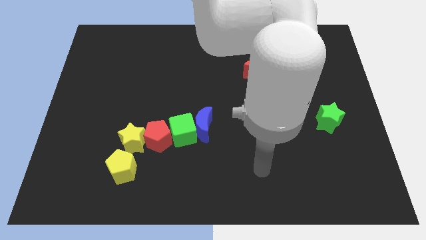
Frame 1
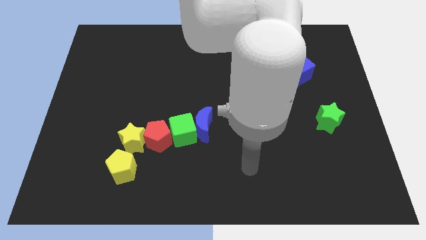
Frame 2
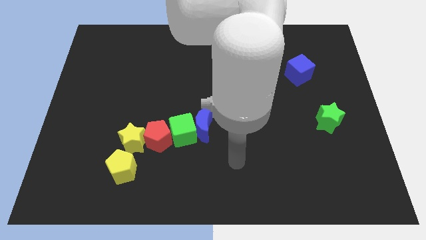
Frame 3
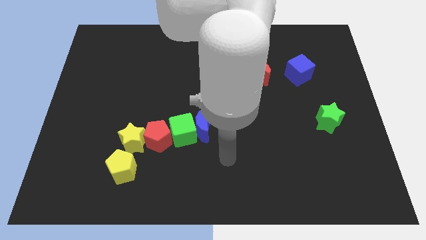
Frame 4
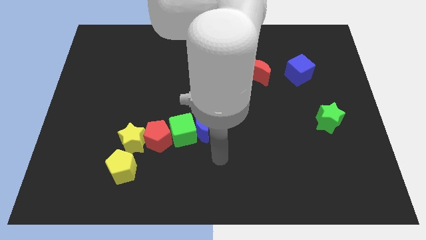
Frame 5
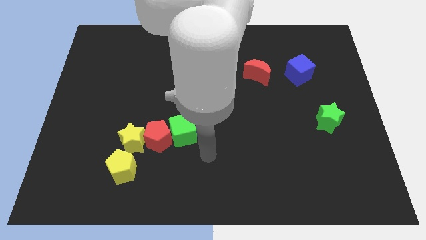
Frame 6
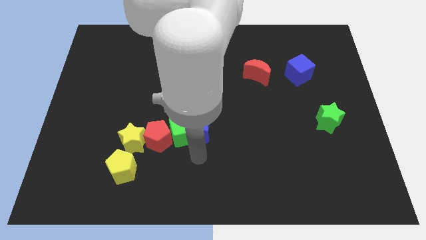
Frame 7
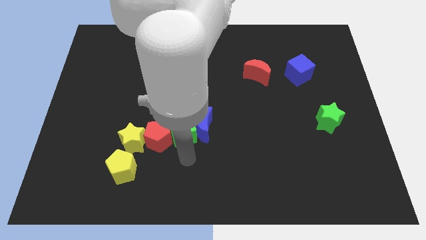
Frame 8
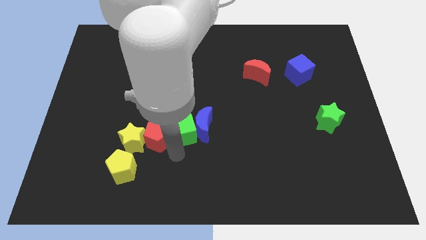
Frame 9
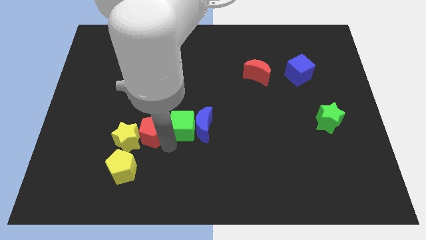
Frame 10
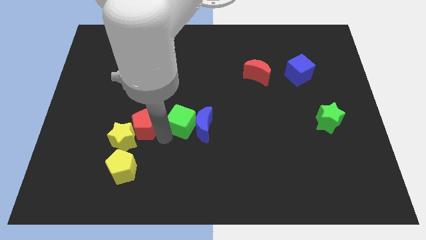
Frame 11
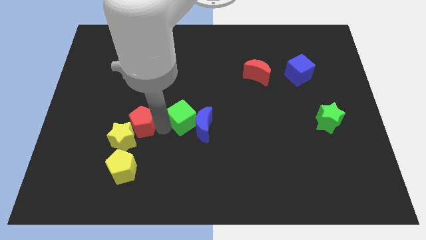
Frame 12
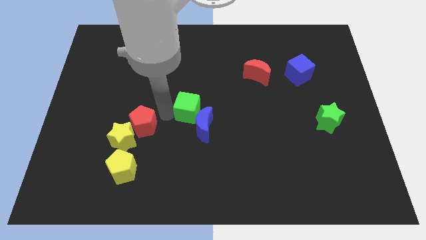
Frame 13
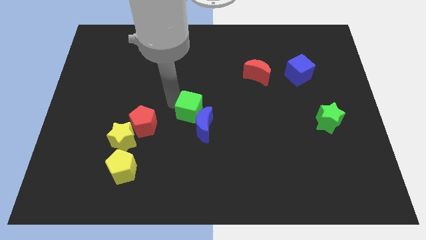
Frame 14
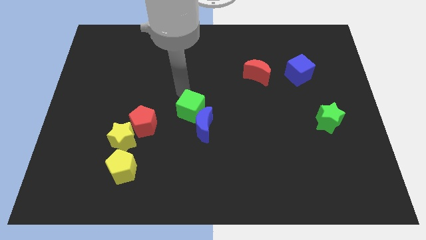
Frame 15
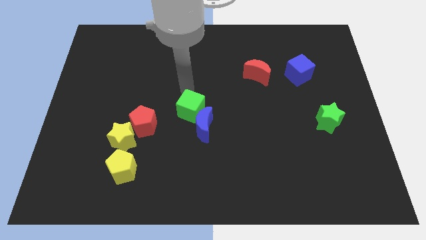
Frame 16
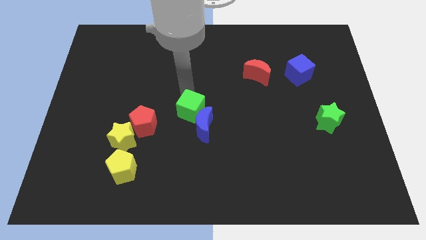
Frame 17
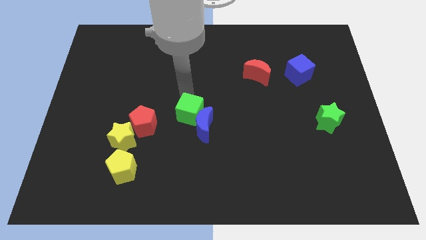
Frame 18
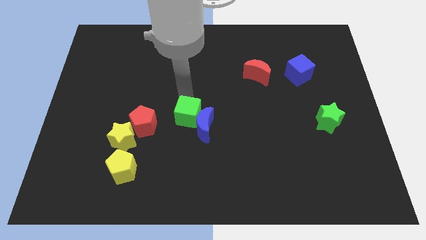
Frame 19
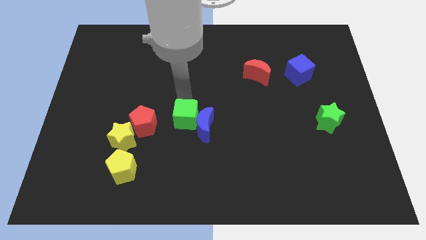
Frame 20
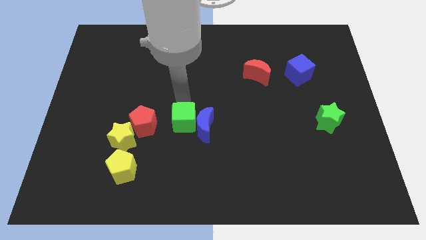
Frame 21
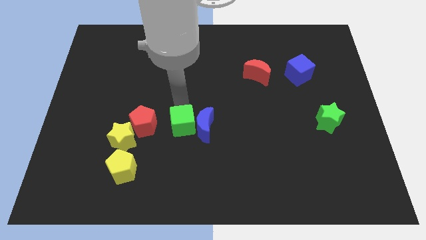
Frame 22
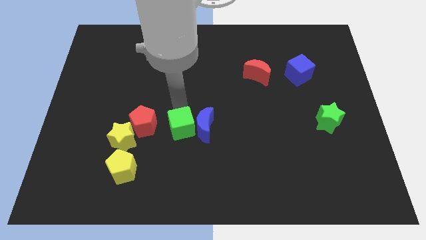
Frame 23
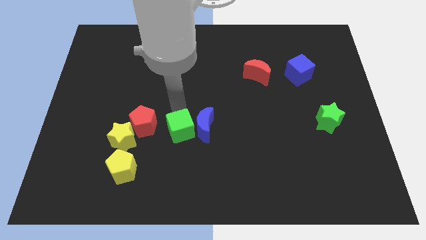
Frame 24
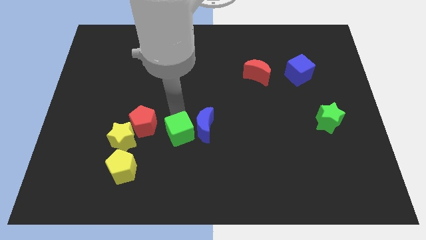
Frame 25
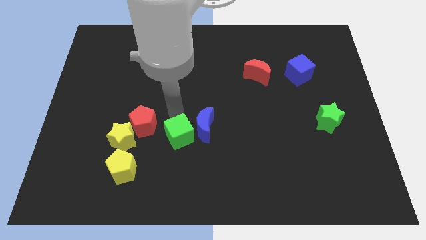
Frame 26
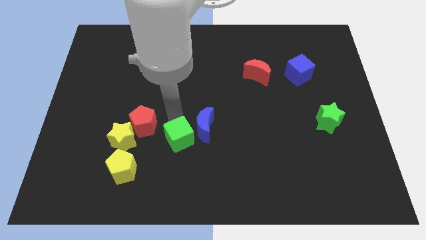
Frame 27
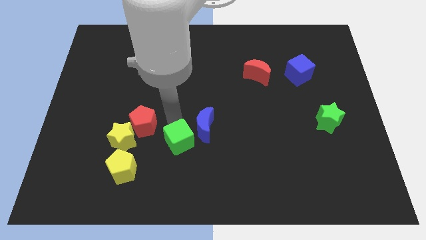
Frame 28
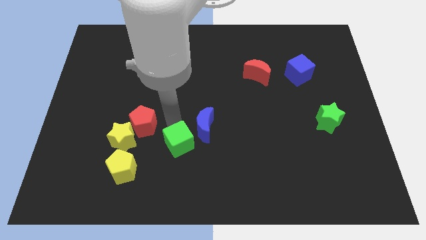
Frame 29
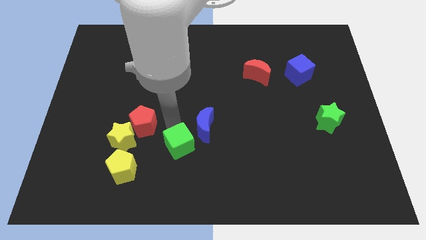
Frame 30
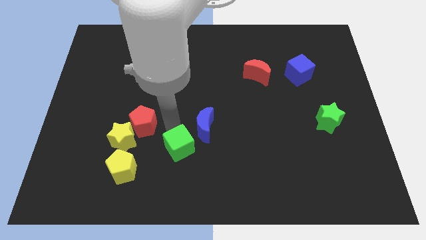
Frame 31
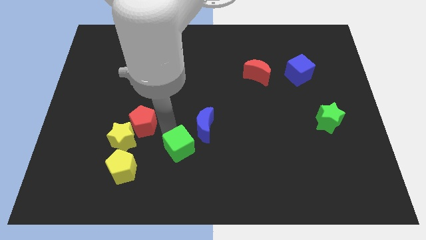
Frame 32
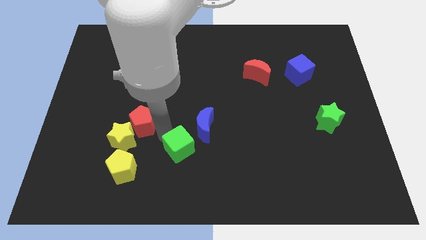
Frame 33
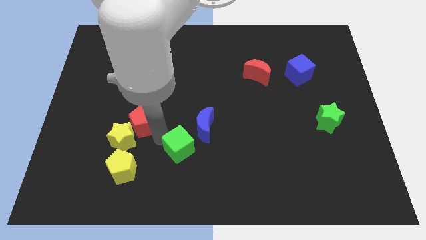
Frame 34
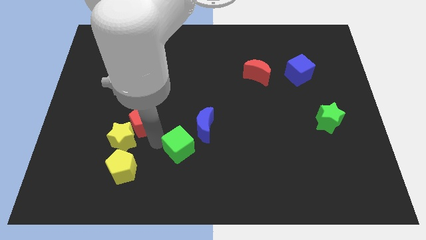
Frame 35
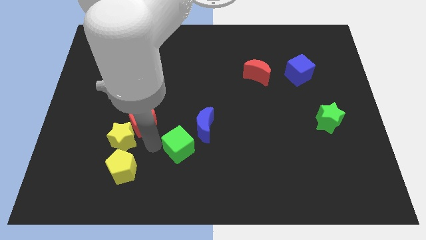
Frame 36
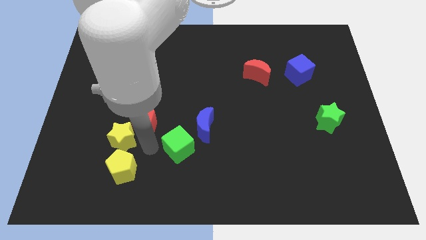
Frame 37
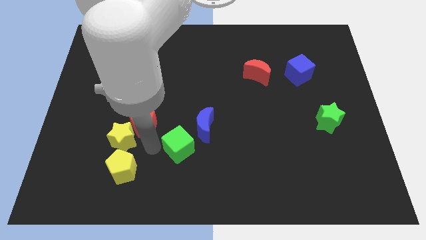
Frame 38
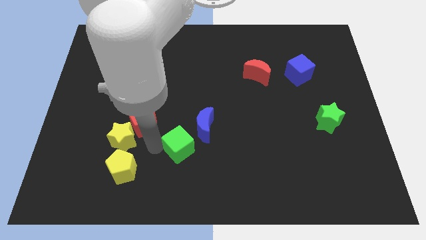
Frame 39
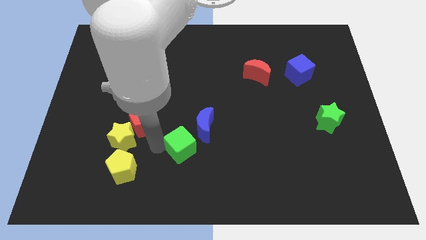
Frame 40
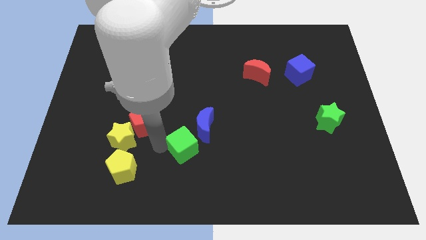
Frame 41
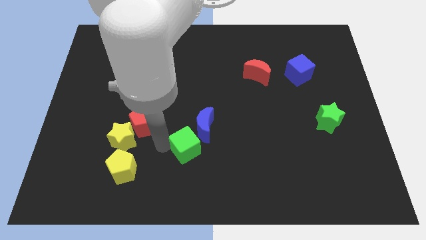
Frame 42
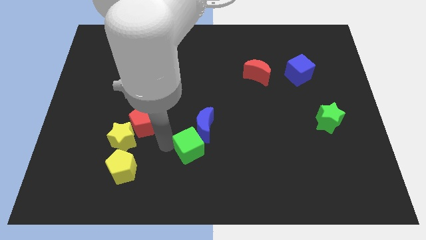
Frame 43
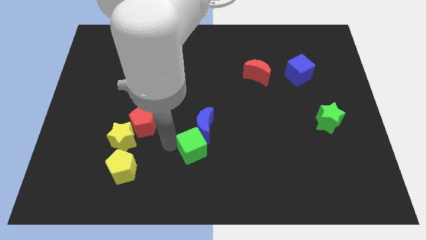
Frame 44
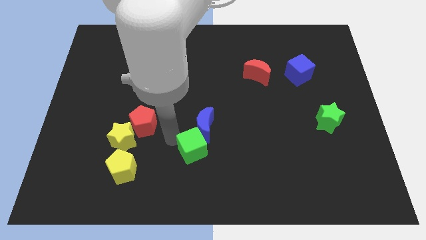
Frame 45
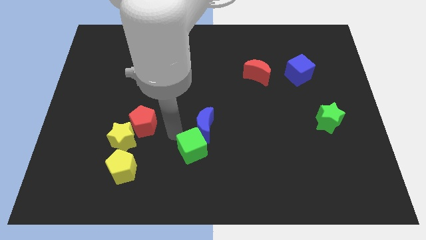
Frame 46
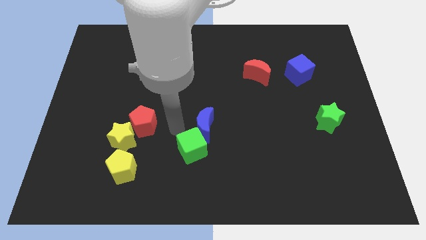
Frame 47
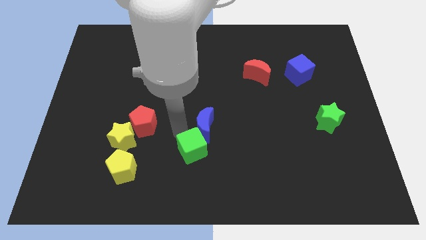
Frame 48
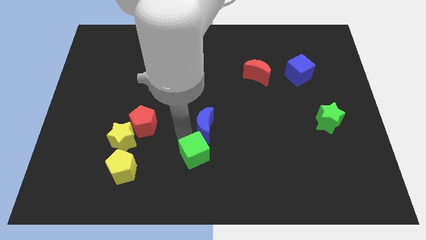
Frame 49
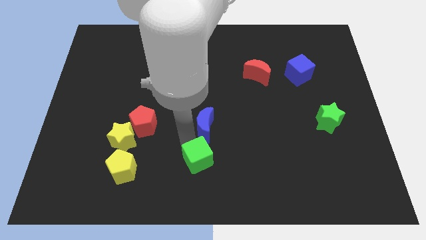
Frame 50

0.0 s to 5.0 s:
pull the green cube apart from the blue moon and red pentagon

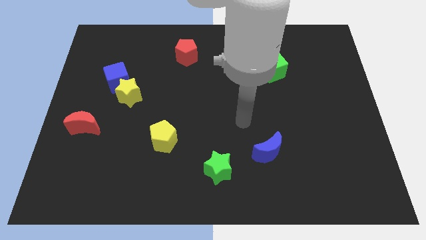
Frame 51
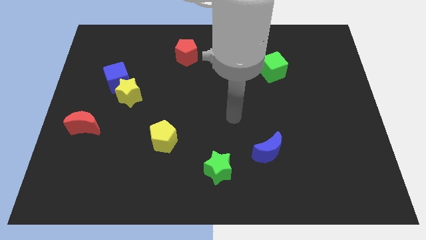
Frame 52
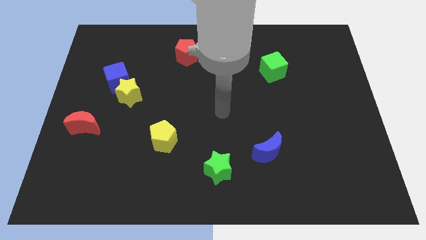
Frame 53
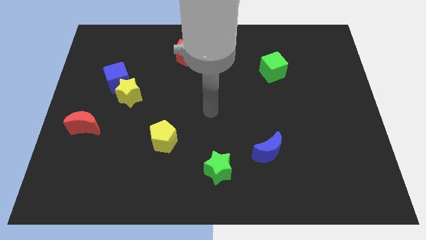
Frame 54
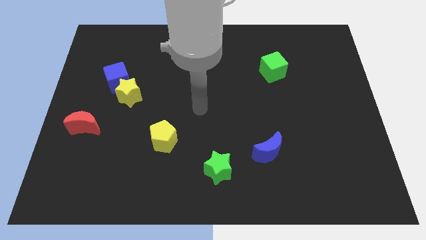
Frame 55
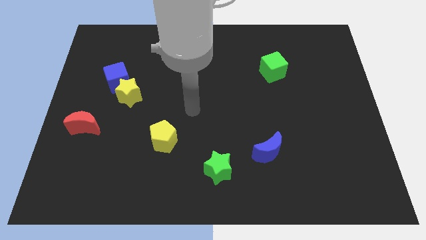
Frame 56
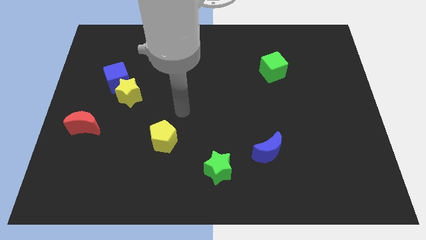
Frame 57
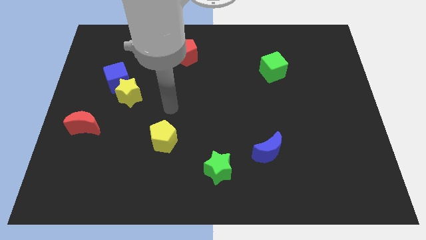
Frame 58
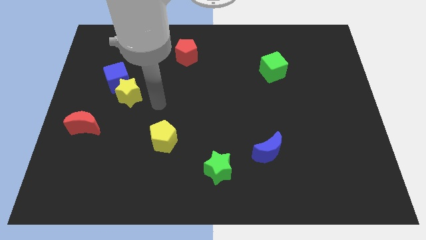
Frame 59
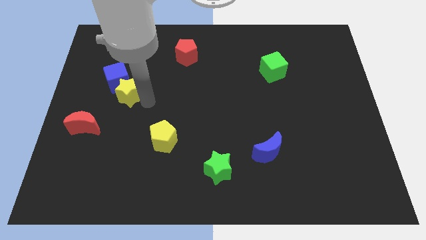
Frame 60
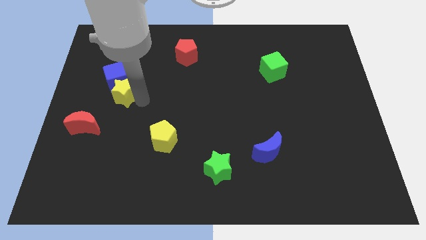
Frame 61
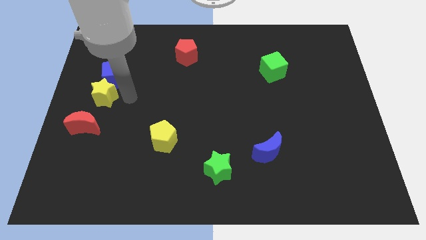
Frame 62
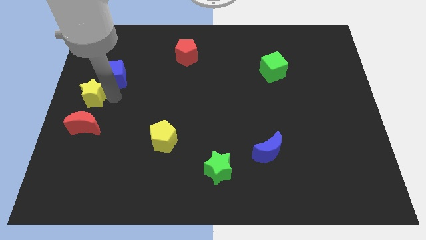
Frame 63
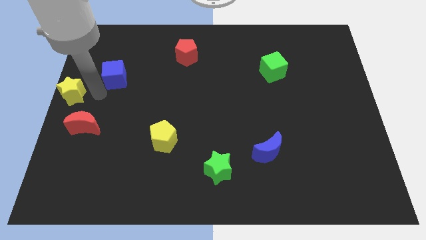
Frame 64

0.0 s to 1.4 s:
pull the blue cube apart from the yellow star

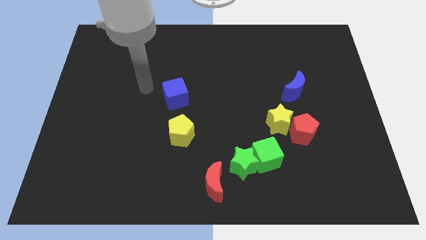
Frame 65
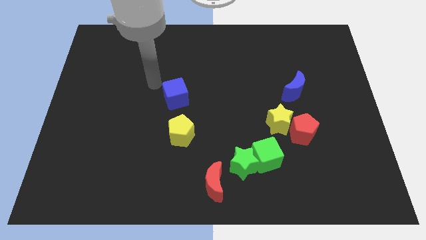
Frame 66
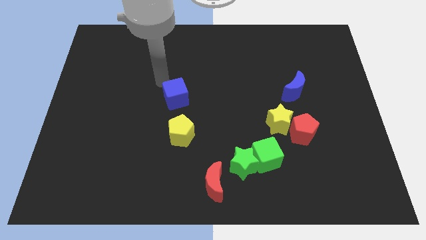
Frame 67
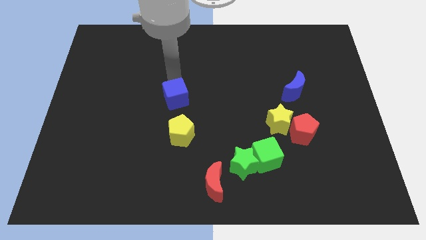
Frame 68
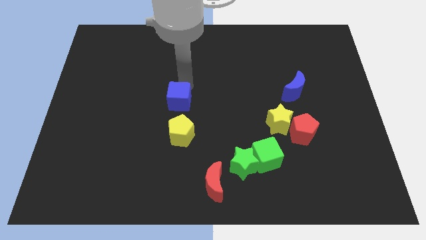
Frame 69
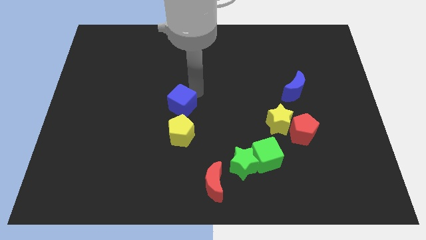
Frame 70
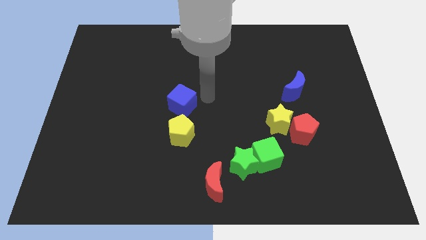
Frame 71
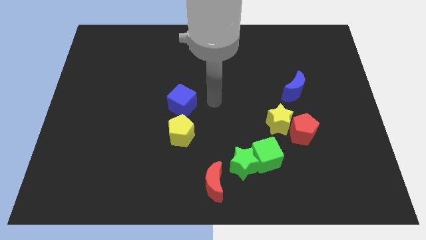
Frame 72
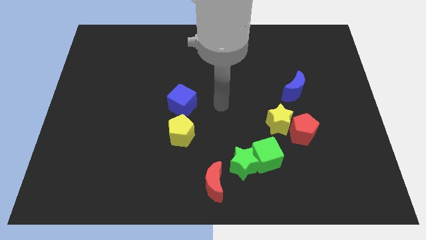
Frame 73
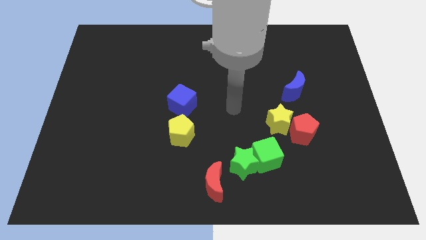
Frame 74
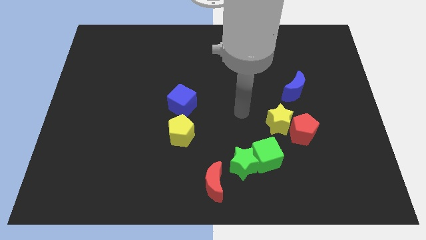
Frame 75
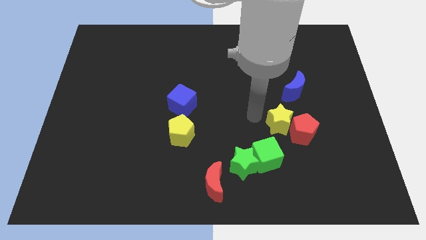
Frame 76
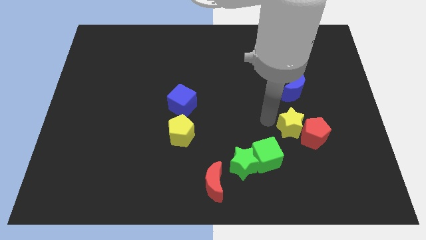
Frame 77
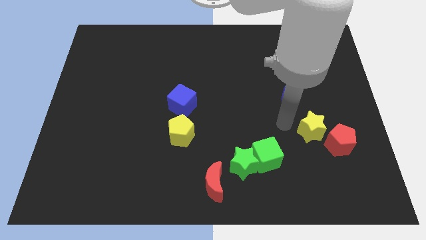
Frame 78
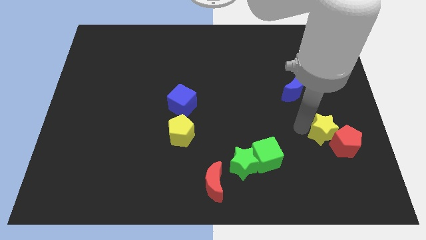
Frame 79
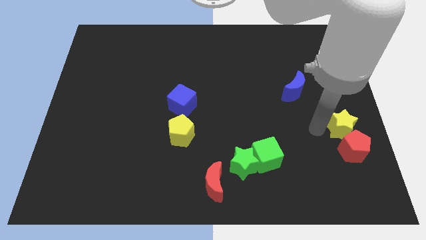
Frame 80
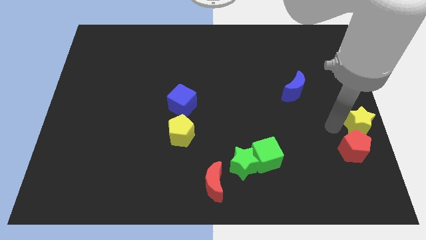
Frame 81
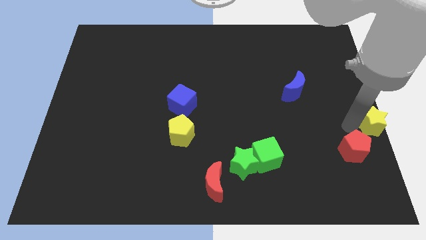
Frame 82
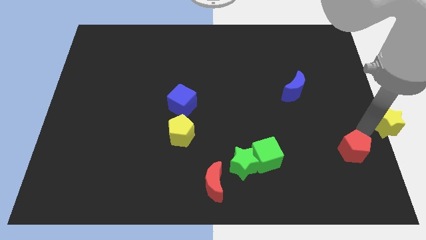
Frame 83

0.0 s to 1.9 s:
separate the red pentagon from the yellow star

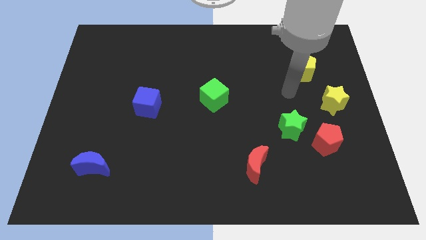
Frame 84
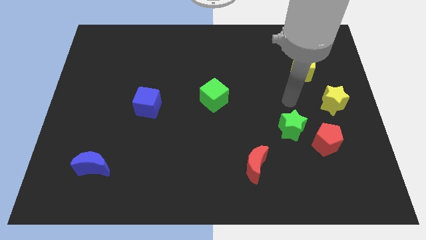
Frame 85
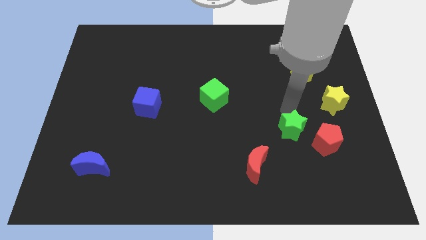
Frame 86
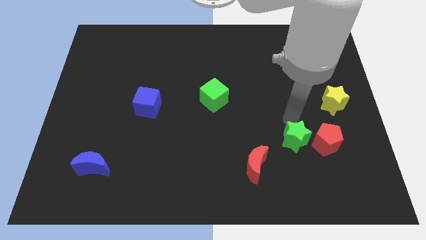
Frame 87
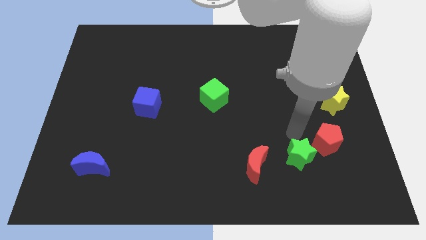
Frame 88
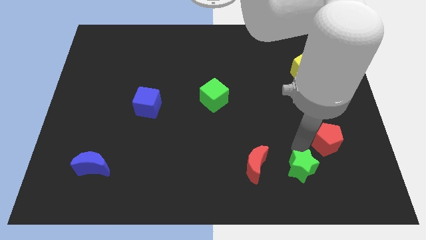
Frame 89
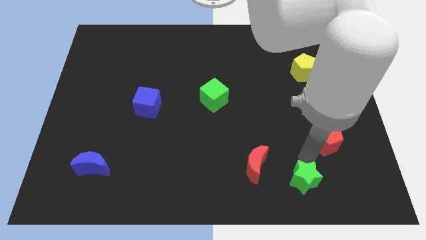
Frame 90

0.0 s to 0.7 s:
move the red pentagon away from the green star

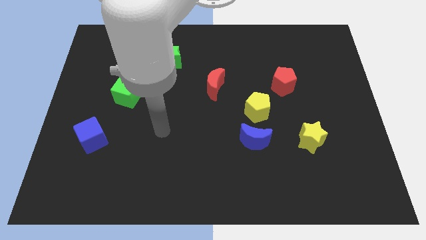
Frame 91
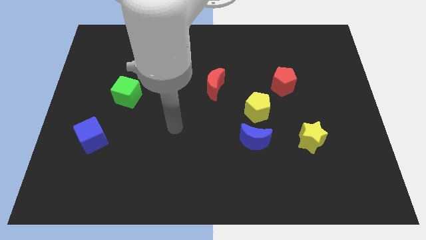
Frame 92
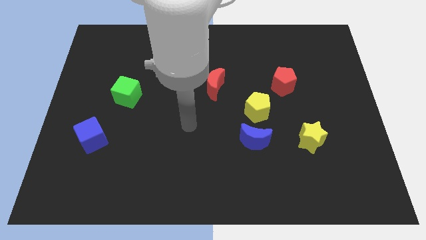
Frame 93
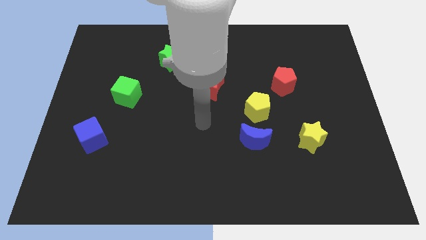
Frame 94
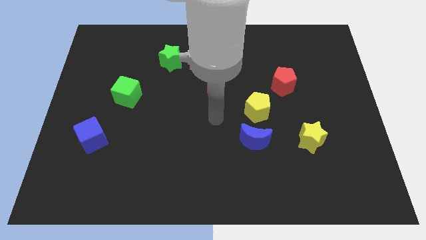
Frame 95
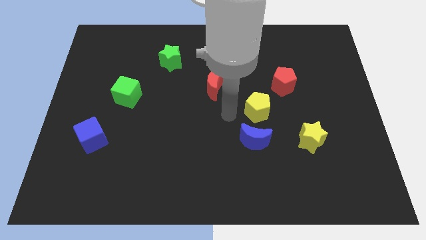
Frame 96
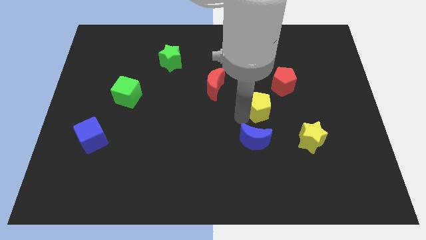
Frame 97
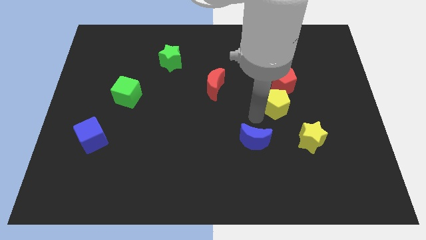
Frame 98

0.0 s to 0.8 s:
pull the blue moon apart from the yellow pentagon
